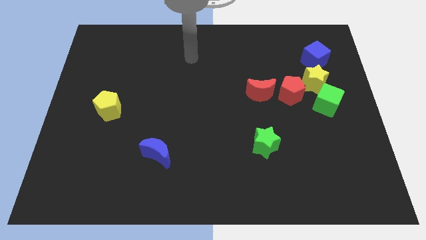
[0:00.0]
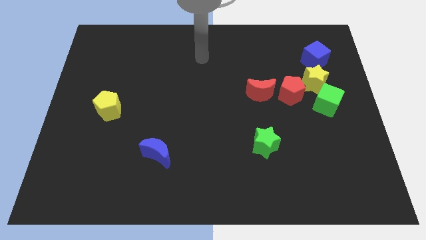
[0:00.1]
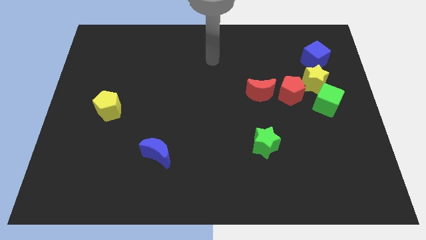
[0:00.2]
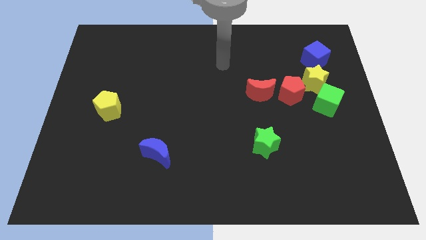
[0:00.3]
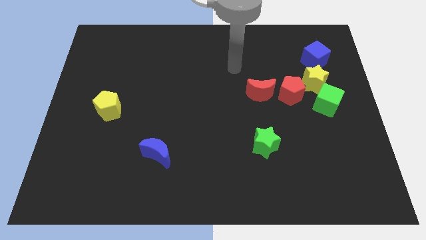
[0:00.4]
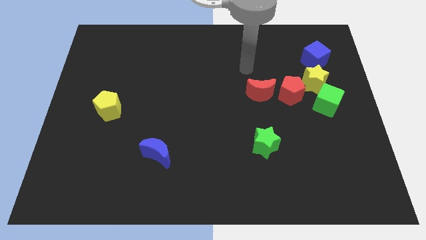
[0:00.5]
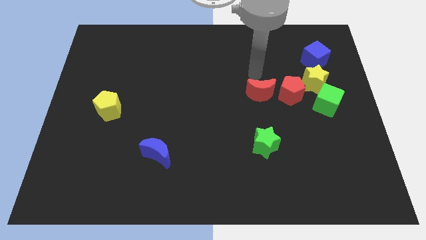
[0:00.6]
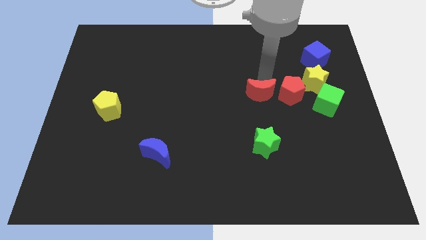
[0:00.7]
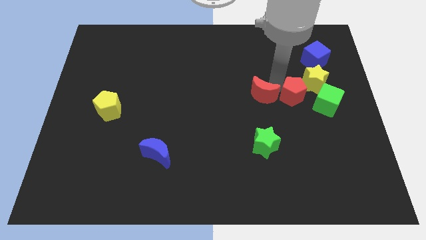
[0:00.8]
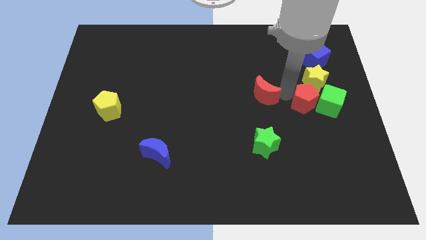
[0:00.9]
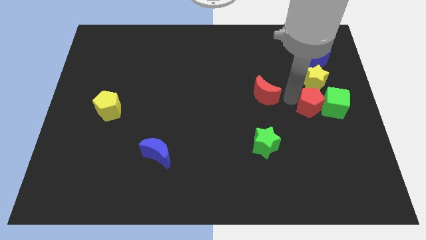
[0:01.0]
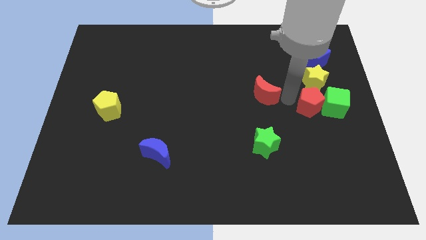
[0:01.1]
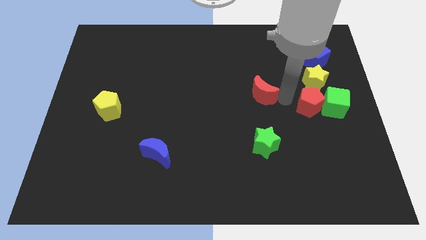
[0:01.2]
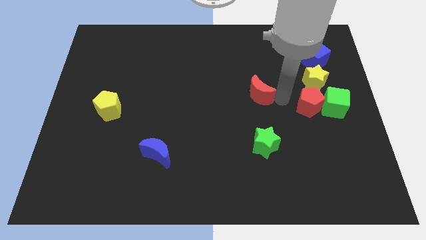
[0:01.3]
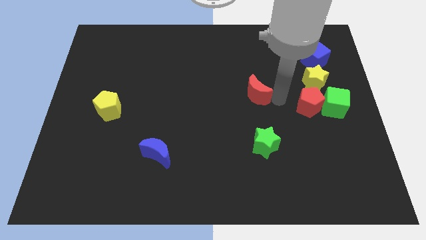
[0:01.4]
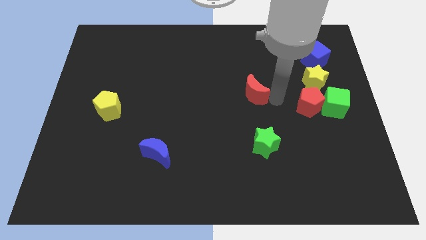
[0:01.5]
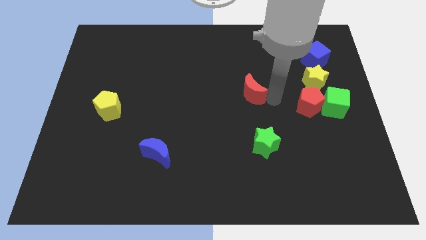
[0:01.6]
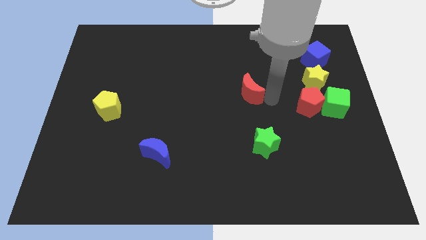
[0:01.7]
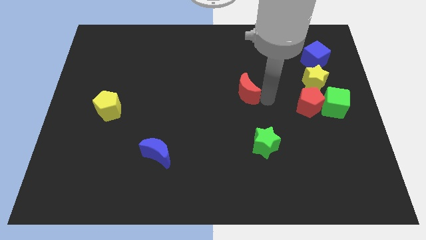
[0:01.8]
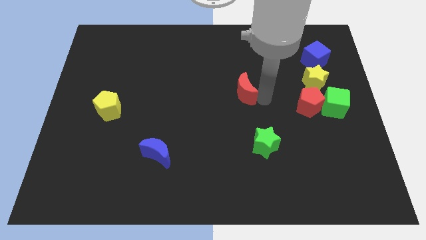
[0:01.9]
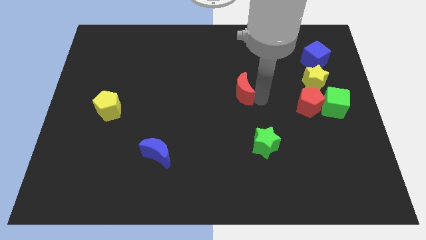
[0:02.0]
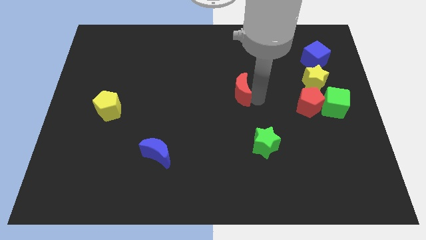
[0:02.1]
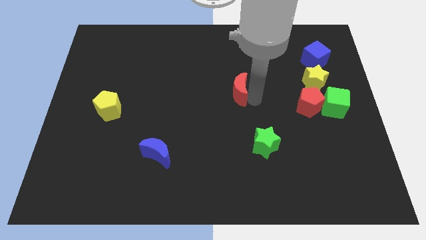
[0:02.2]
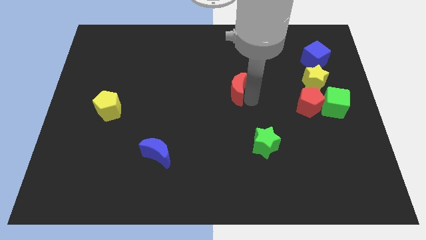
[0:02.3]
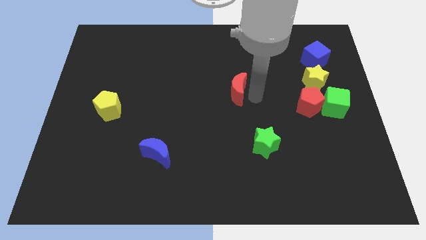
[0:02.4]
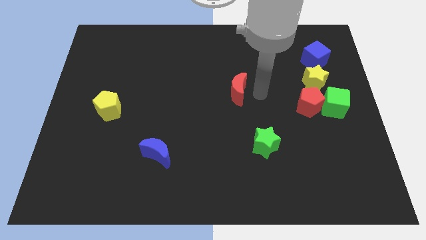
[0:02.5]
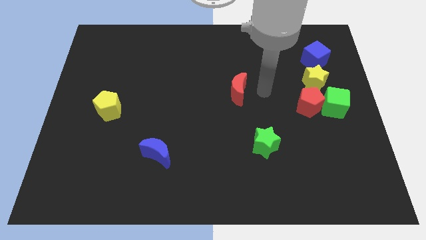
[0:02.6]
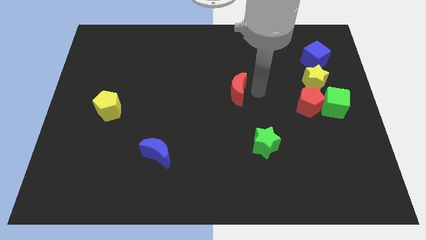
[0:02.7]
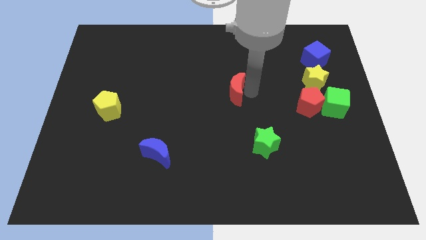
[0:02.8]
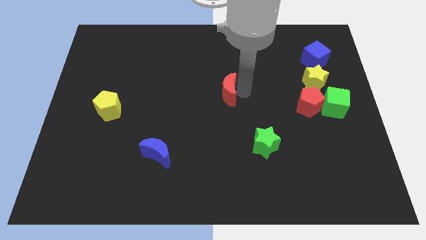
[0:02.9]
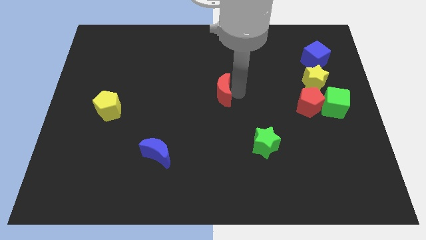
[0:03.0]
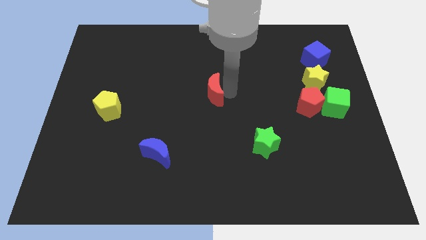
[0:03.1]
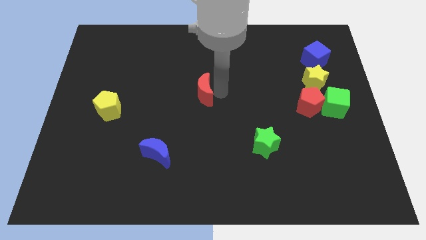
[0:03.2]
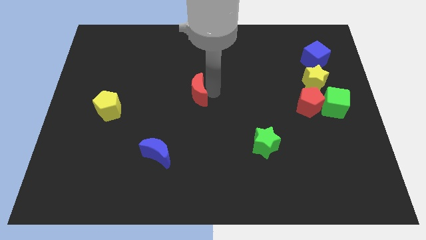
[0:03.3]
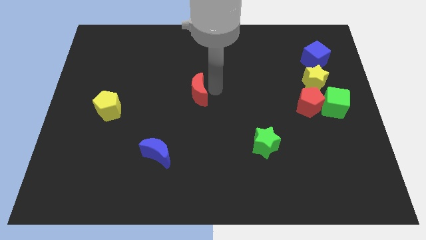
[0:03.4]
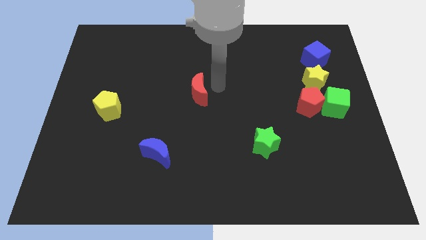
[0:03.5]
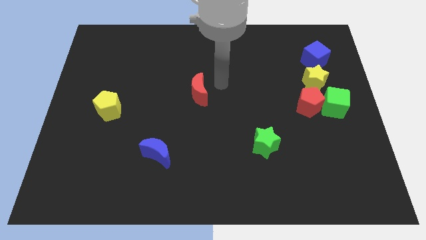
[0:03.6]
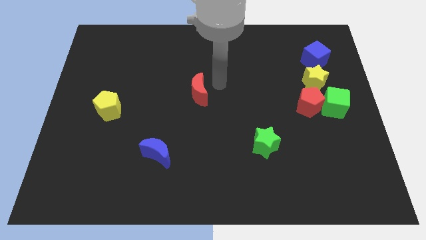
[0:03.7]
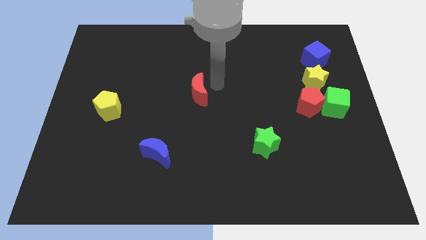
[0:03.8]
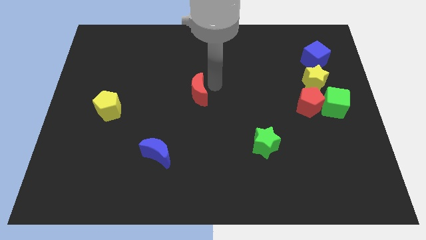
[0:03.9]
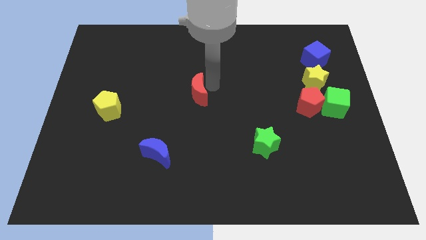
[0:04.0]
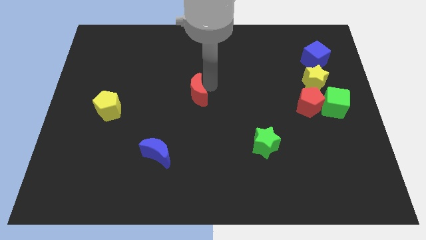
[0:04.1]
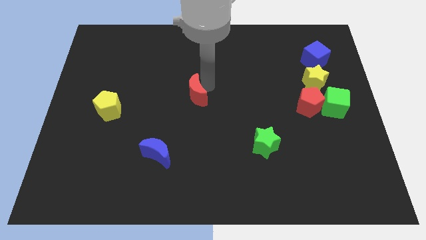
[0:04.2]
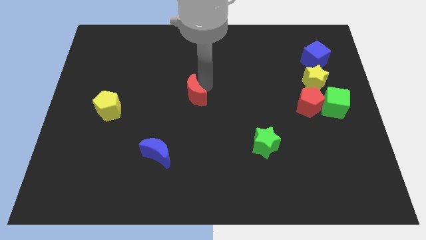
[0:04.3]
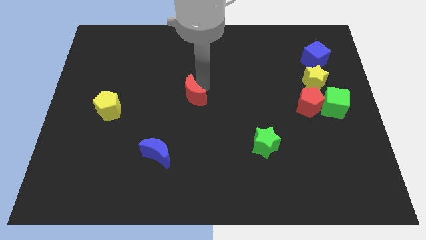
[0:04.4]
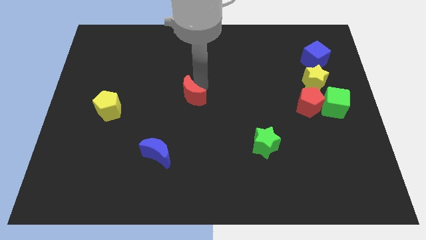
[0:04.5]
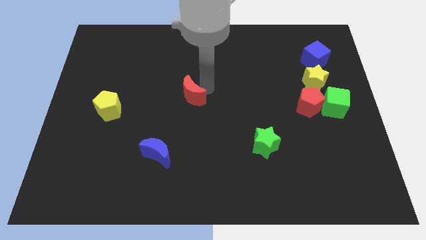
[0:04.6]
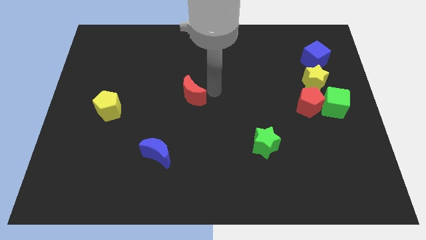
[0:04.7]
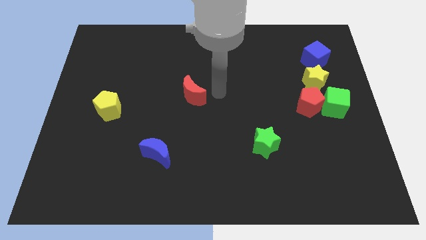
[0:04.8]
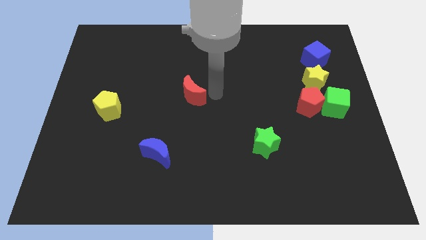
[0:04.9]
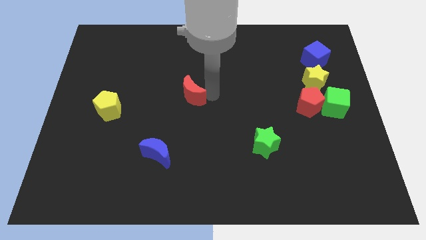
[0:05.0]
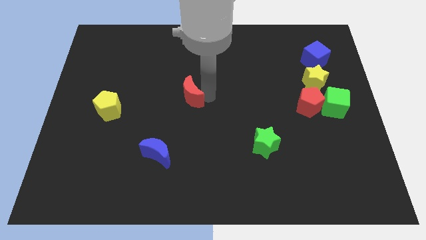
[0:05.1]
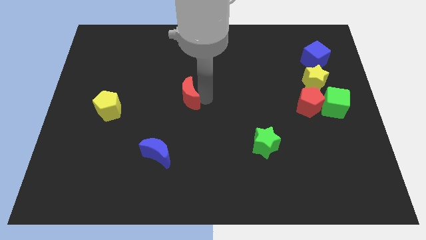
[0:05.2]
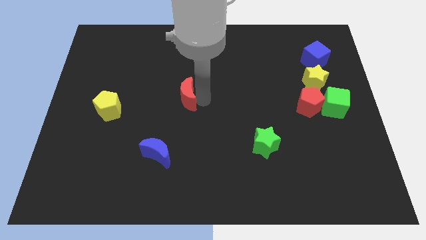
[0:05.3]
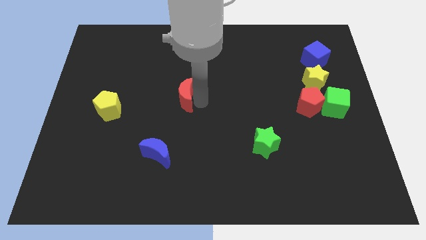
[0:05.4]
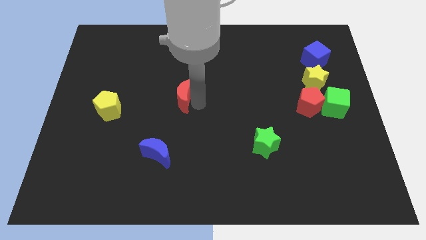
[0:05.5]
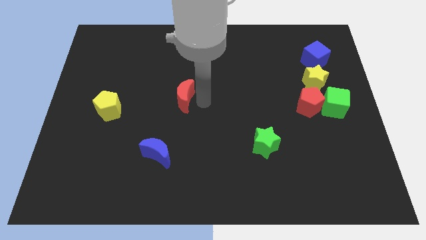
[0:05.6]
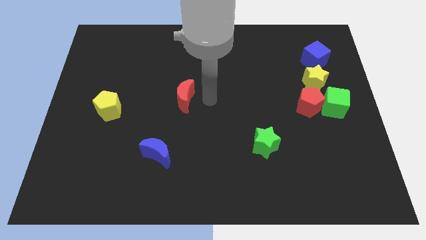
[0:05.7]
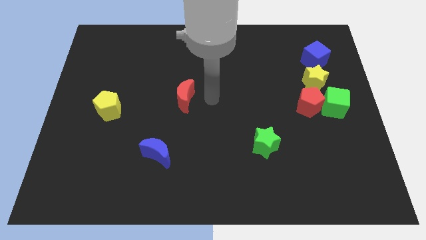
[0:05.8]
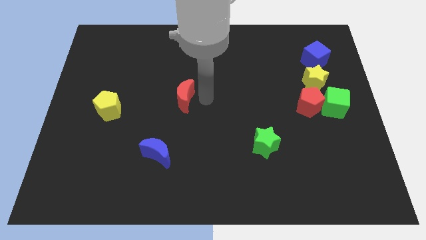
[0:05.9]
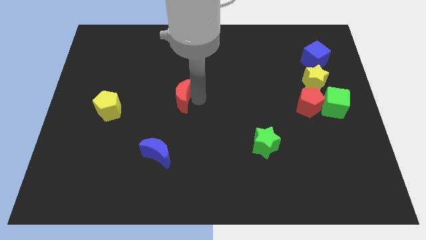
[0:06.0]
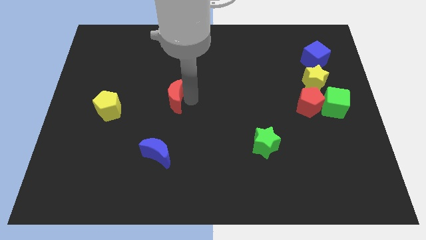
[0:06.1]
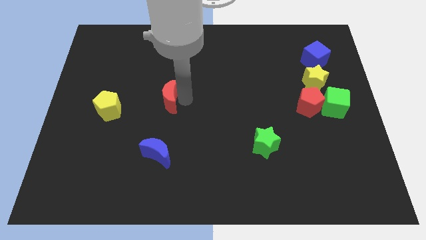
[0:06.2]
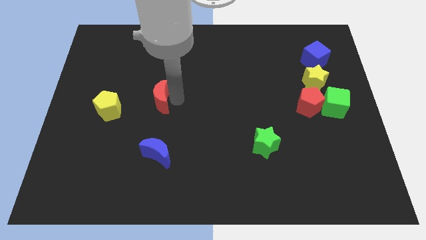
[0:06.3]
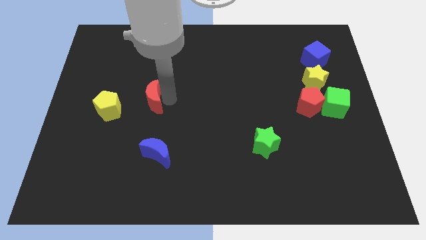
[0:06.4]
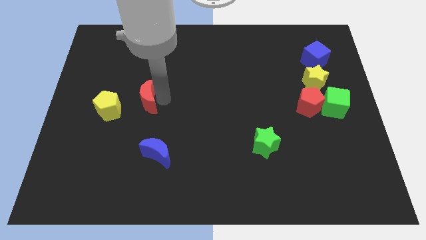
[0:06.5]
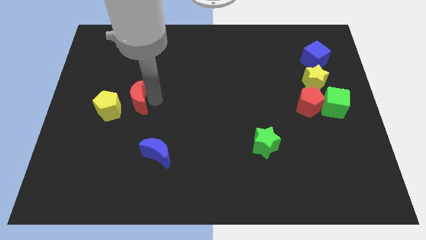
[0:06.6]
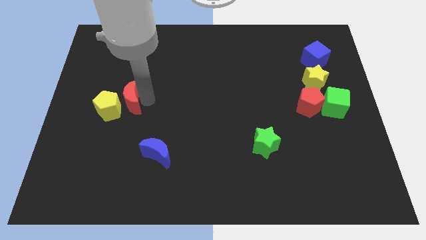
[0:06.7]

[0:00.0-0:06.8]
slide the red moon to the yellow pentagon

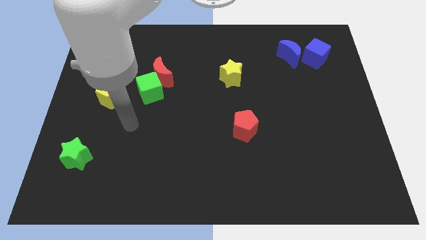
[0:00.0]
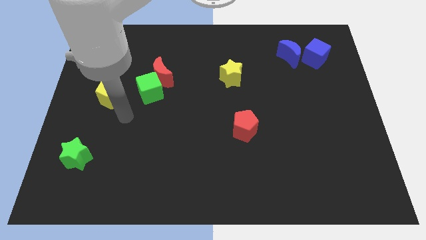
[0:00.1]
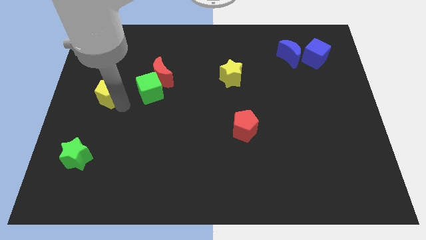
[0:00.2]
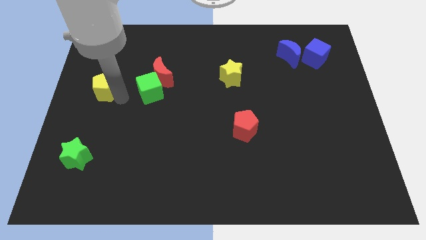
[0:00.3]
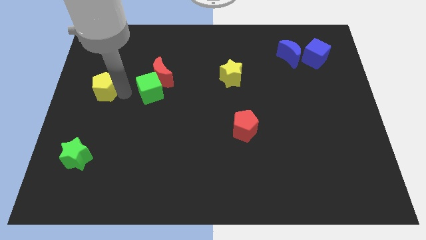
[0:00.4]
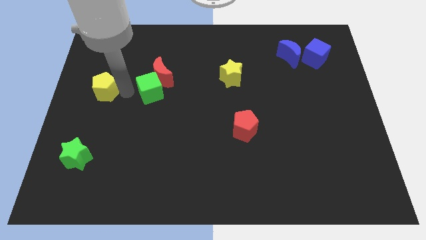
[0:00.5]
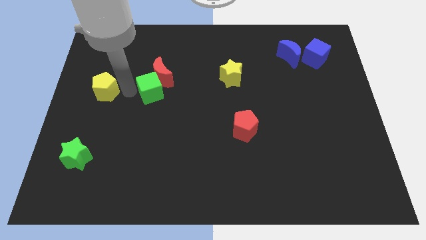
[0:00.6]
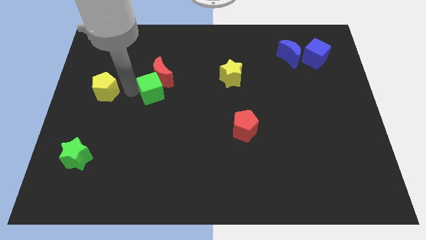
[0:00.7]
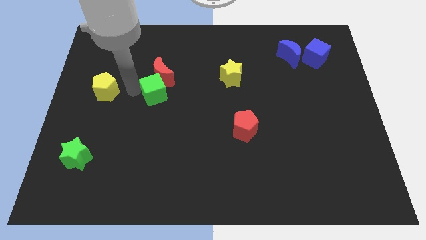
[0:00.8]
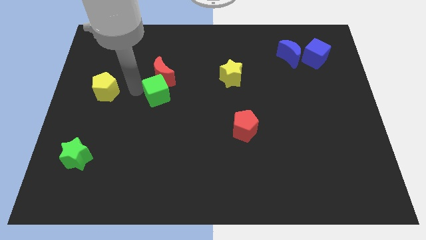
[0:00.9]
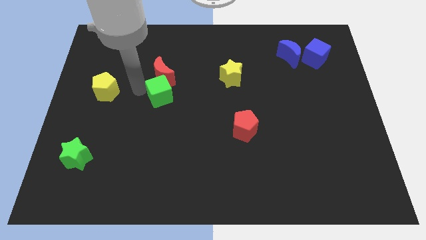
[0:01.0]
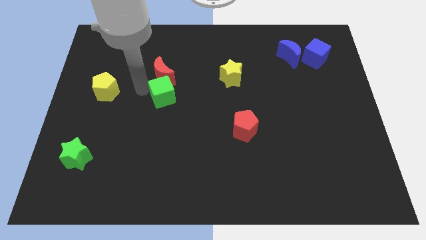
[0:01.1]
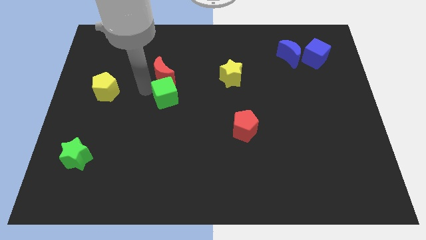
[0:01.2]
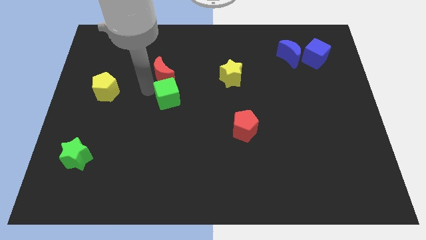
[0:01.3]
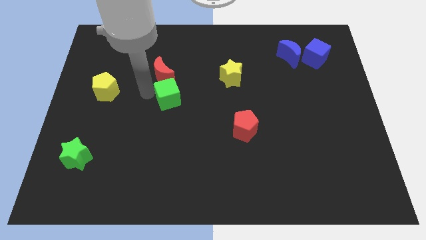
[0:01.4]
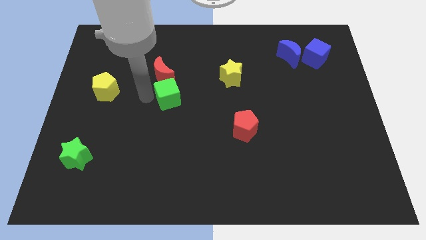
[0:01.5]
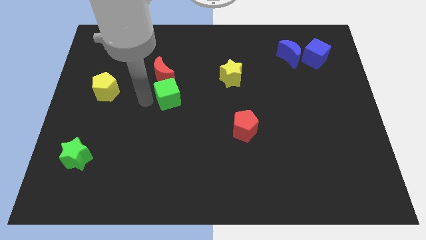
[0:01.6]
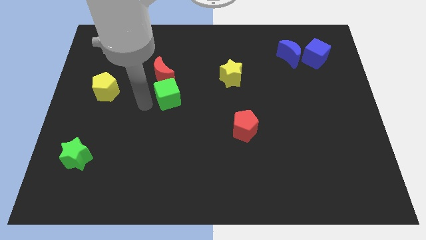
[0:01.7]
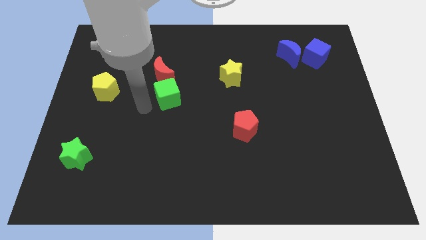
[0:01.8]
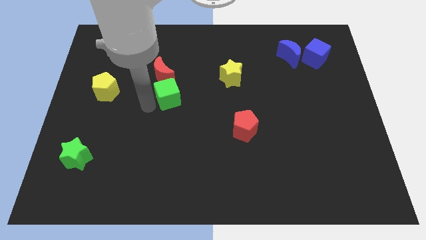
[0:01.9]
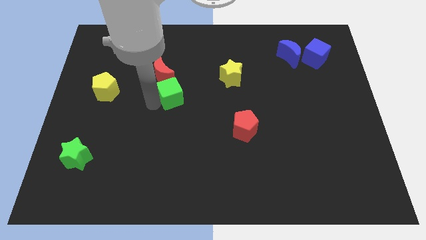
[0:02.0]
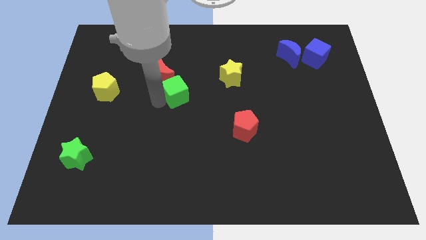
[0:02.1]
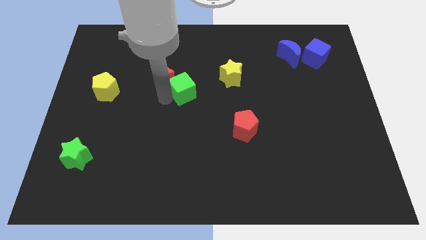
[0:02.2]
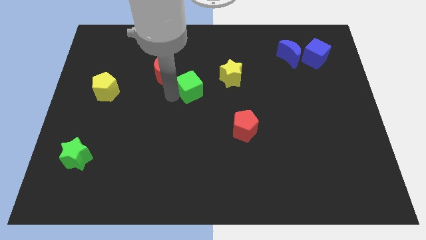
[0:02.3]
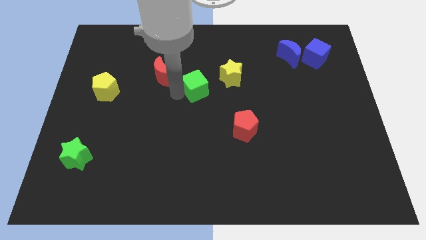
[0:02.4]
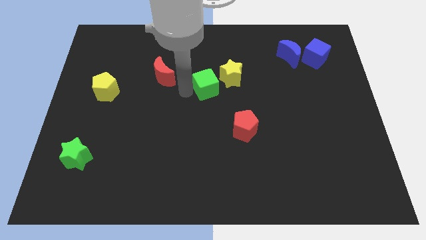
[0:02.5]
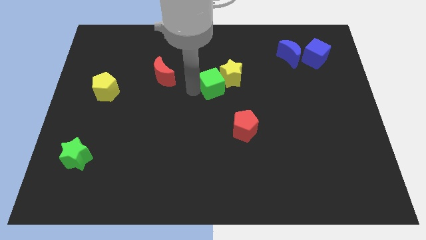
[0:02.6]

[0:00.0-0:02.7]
put the green cube towards the yellow star
